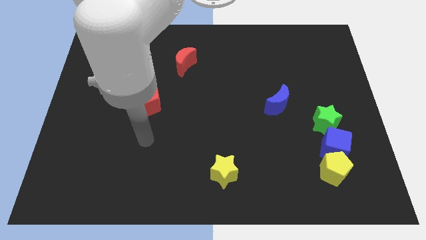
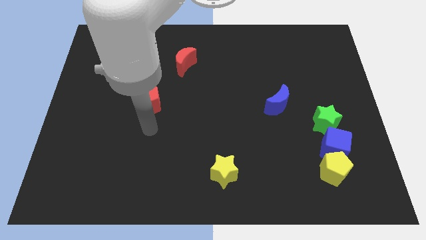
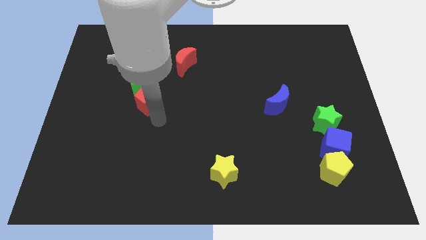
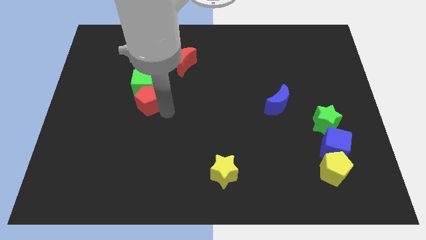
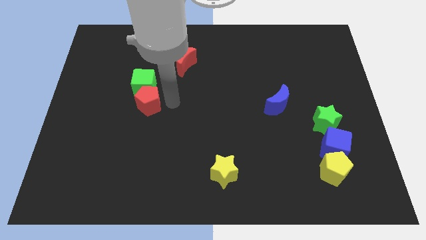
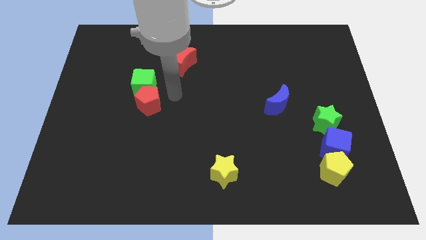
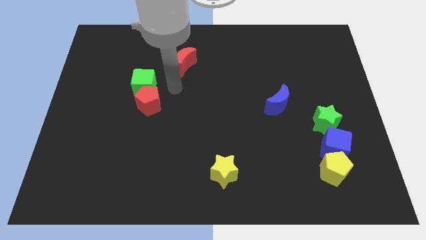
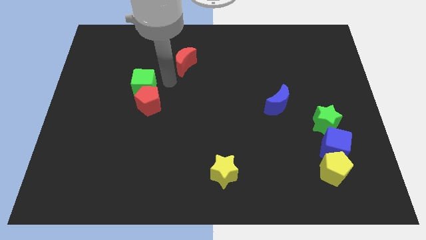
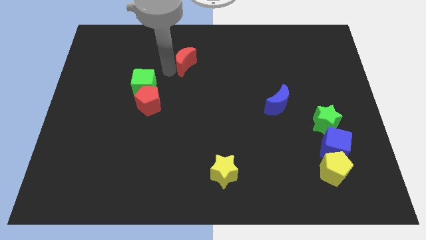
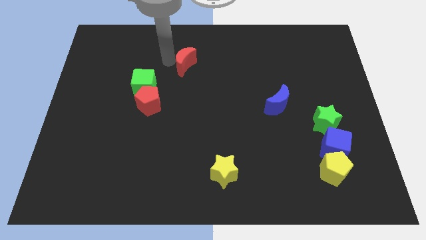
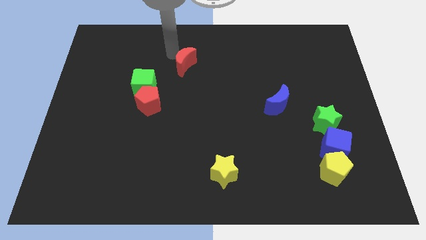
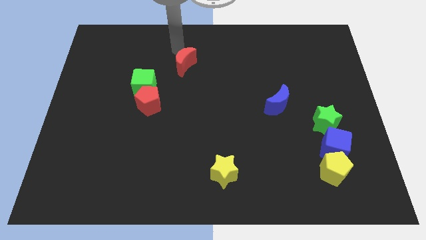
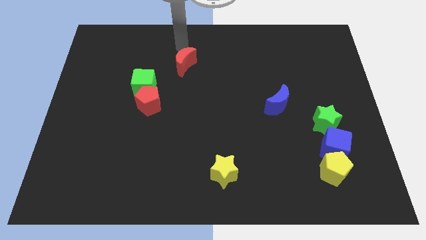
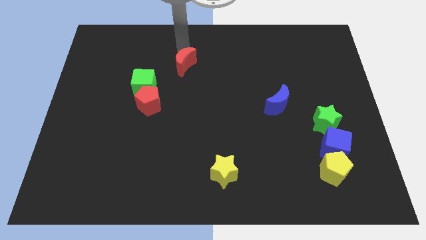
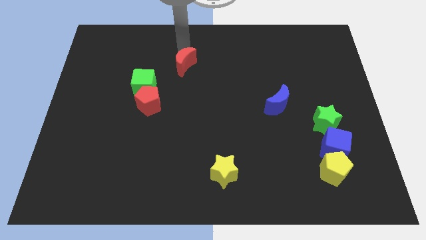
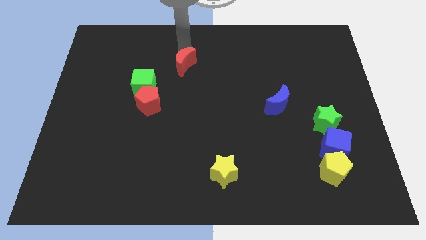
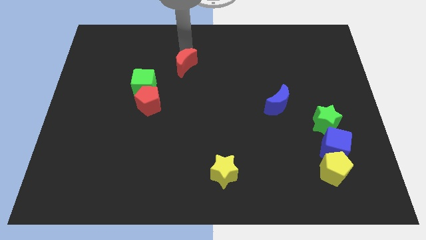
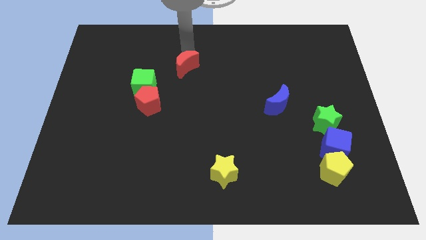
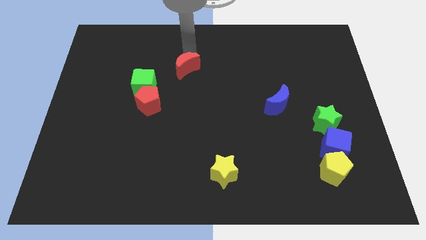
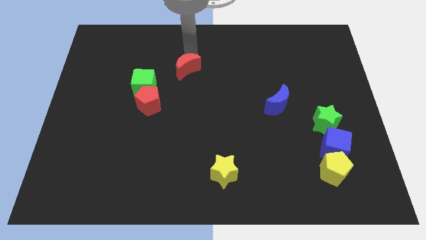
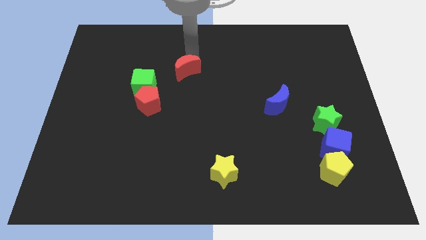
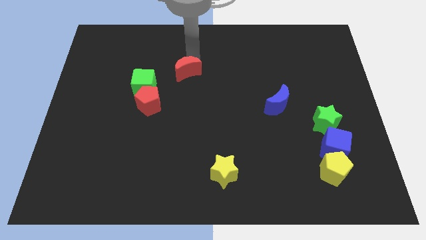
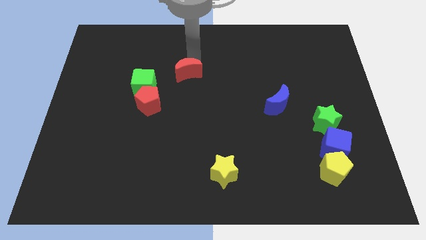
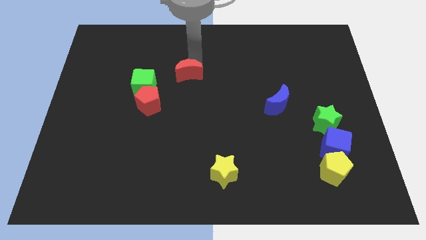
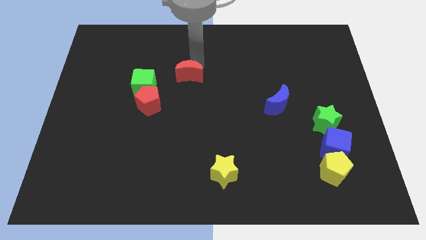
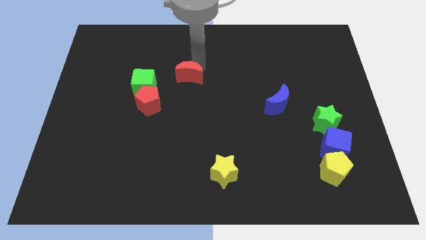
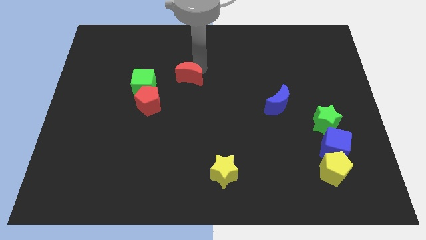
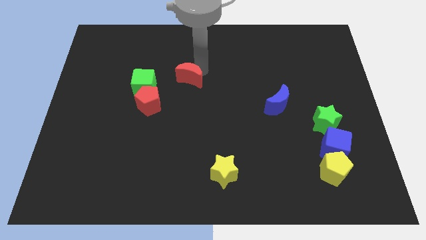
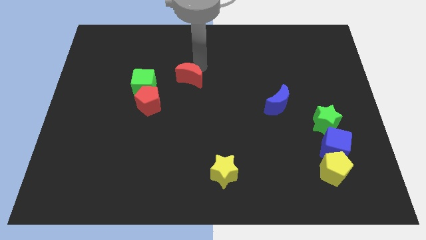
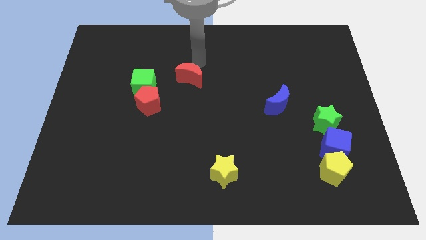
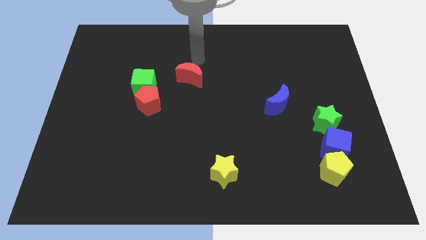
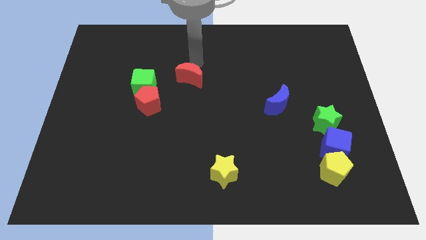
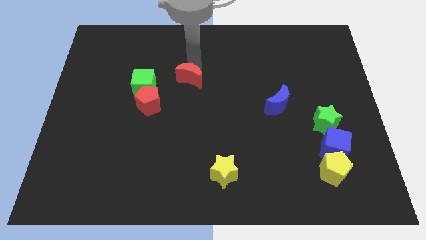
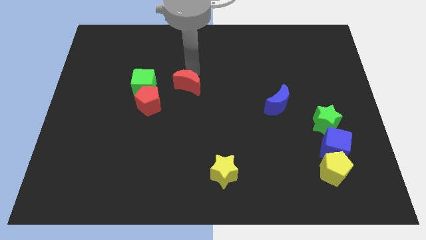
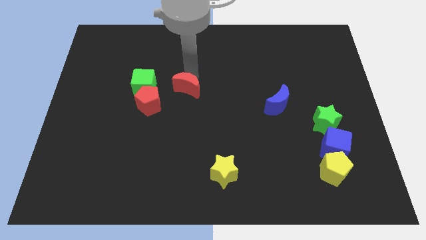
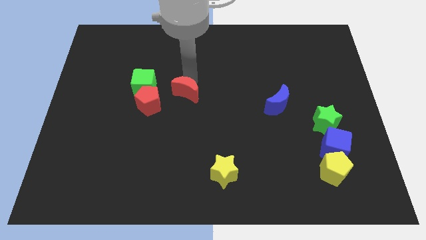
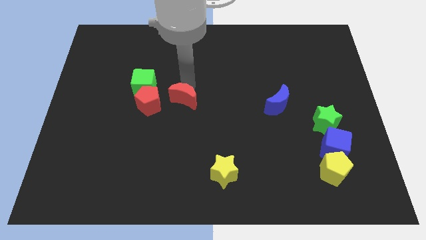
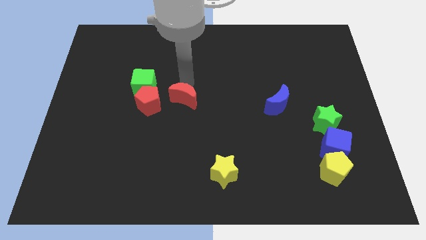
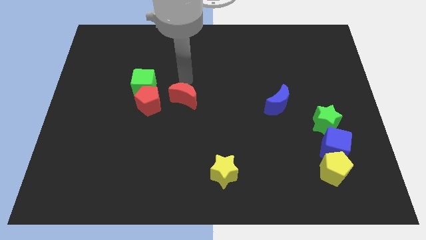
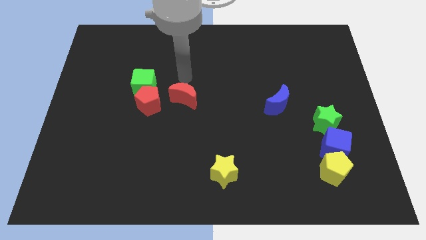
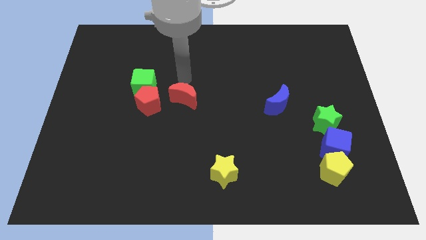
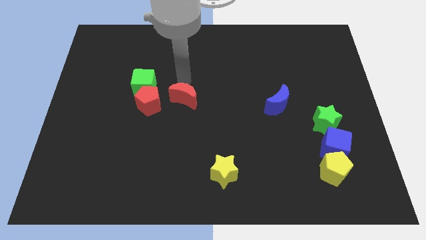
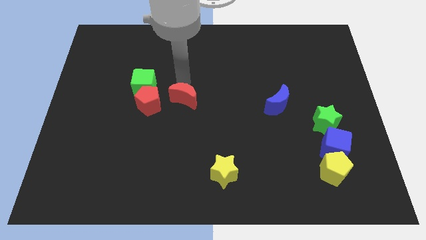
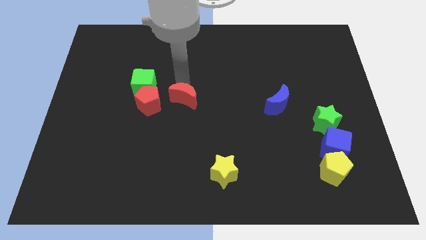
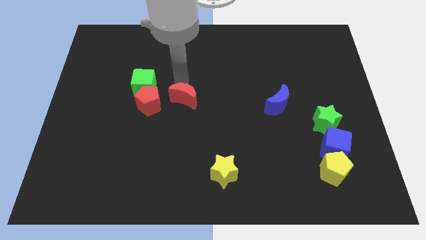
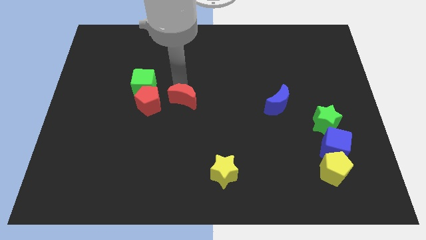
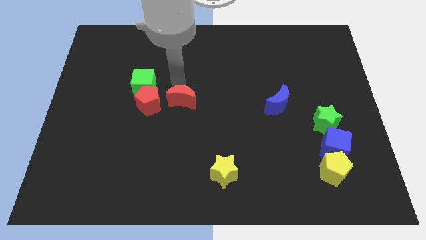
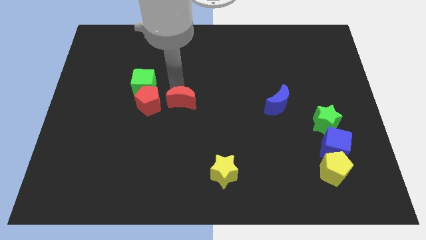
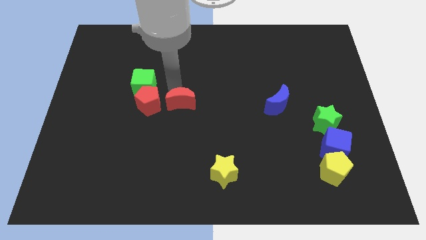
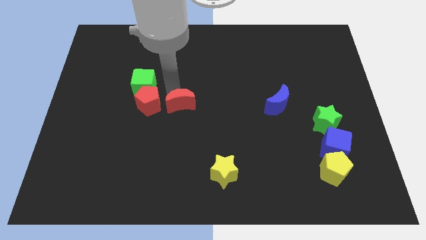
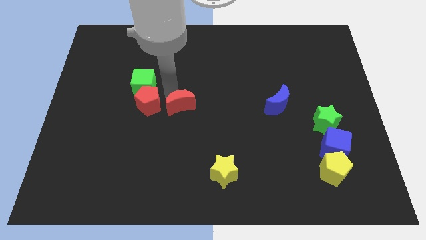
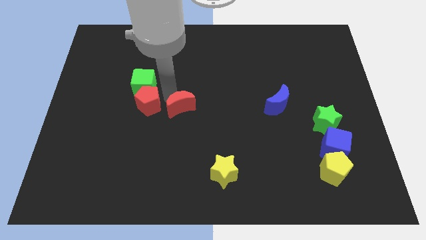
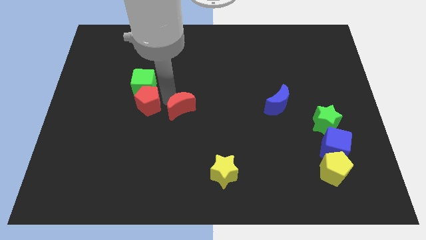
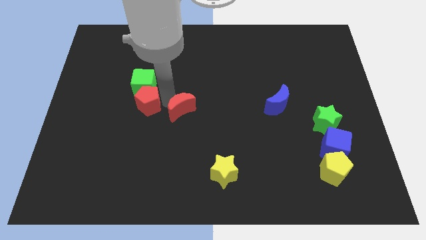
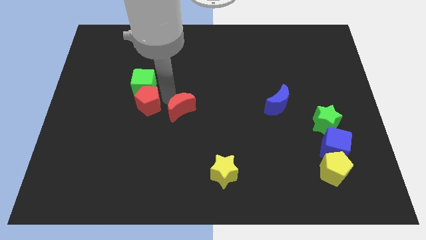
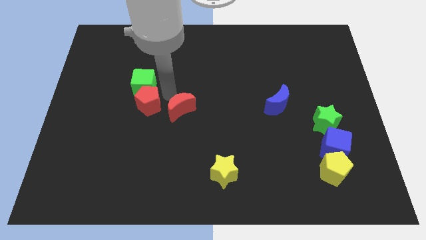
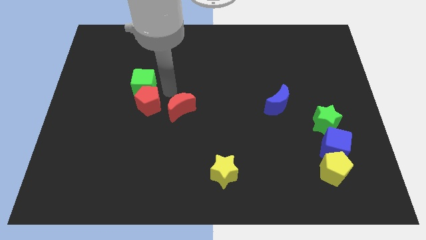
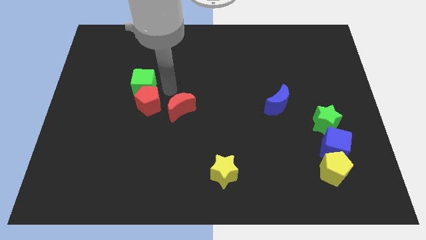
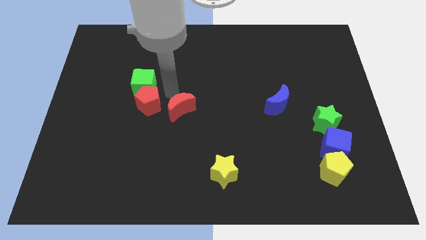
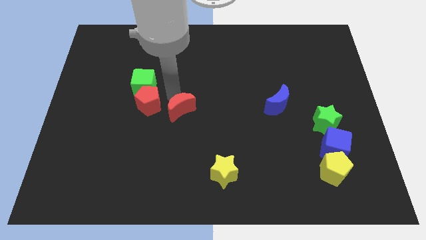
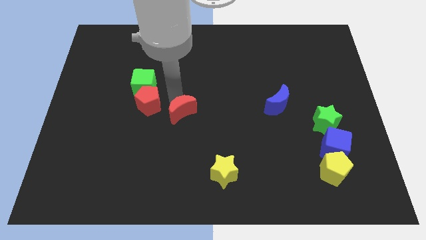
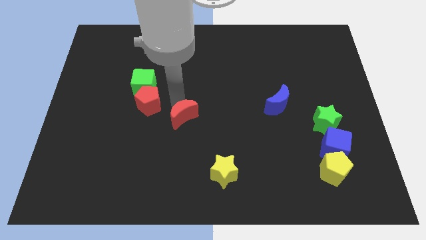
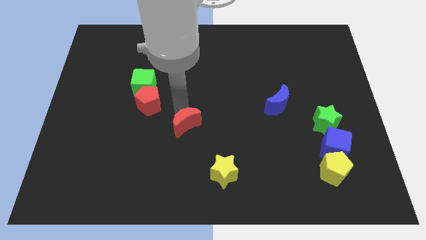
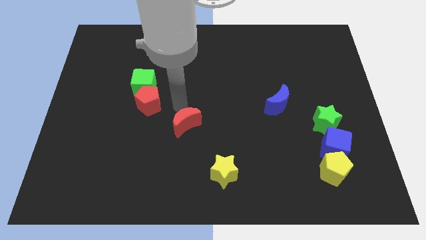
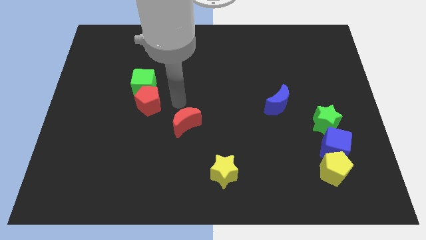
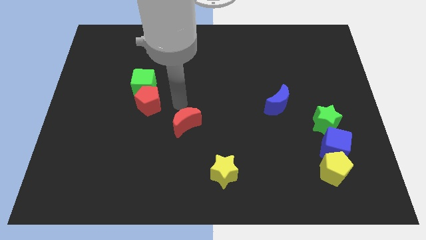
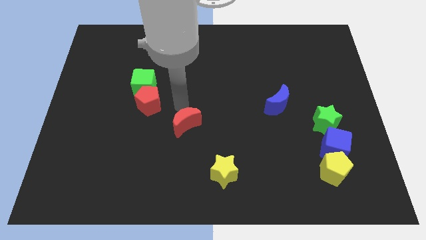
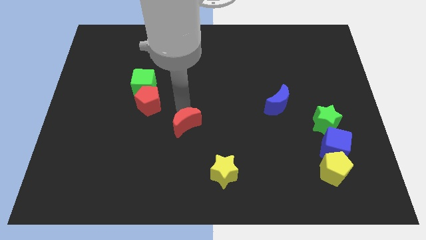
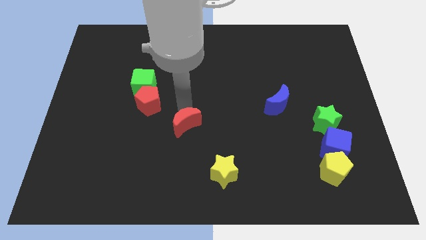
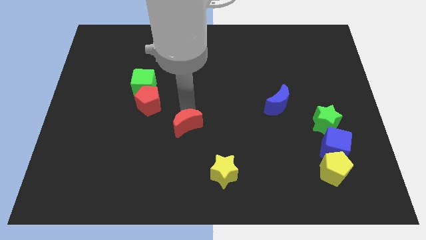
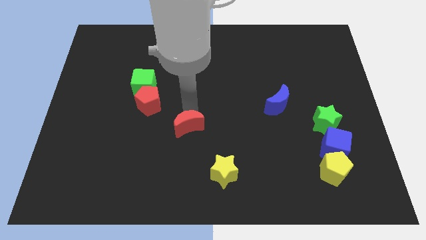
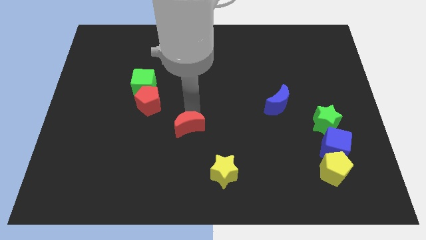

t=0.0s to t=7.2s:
slide the red moon down

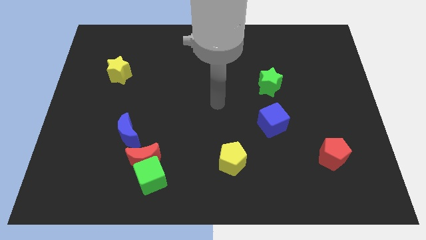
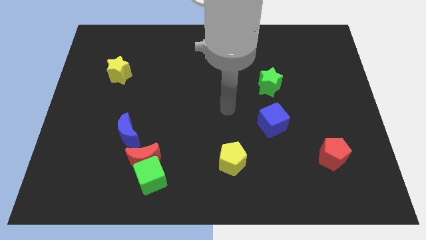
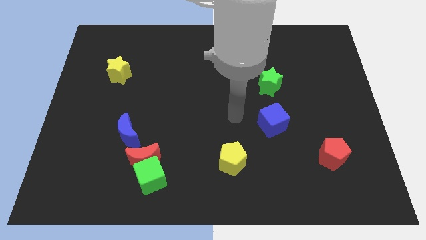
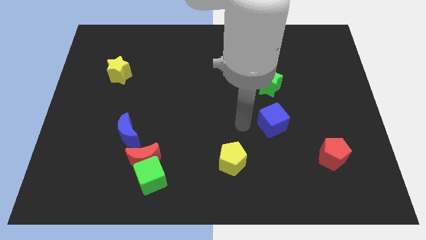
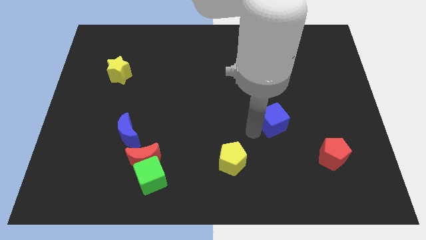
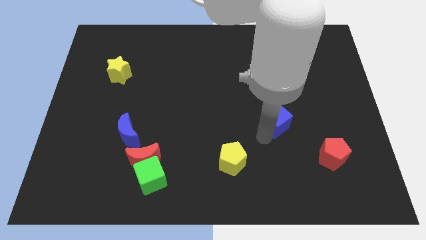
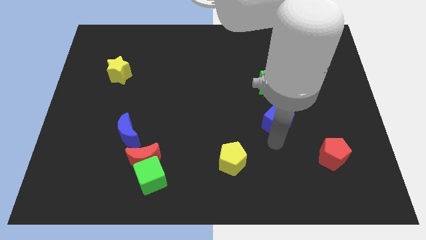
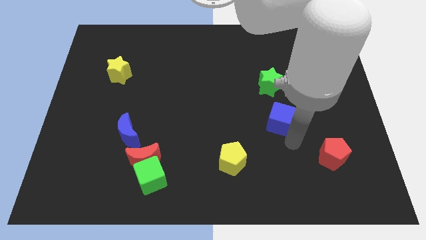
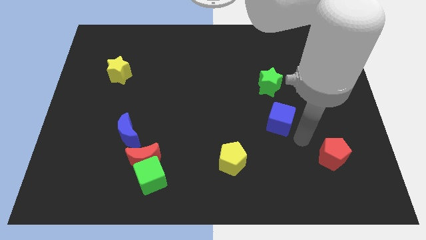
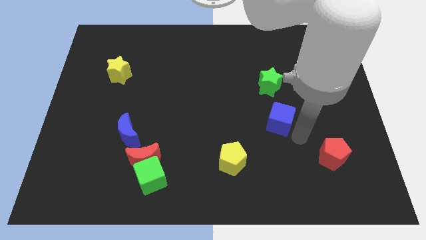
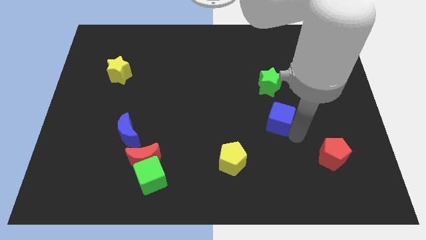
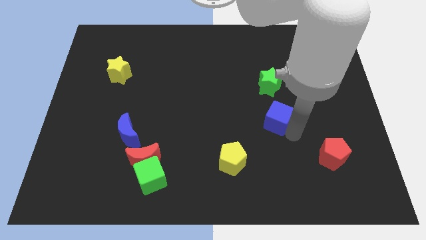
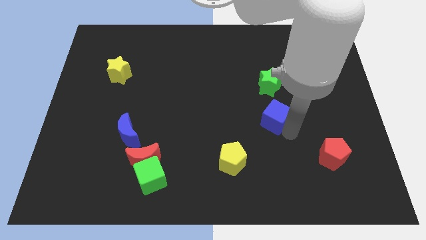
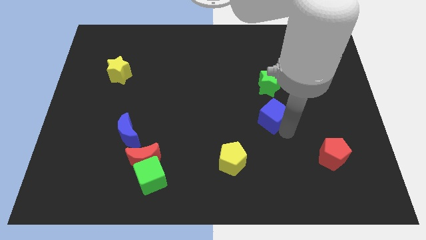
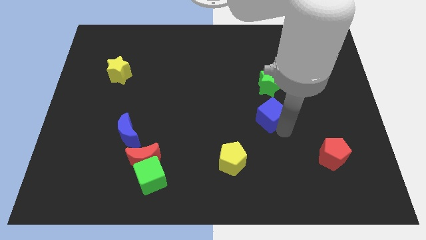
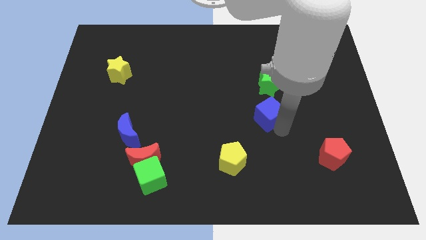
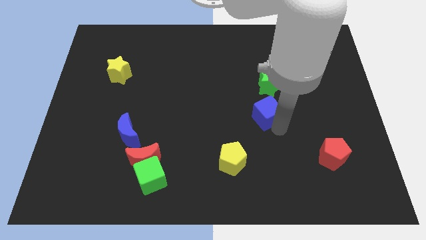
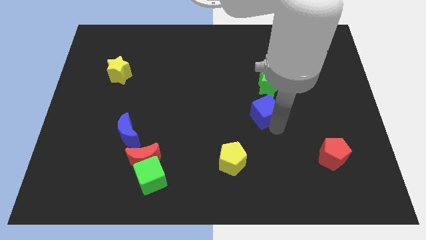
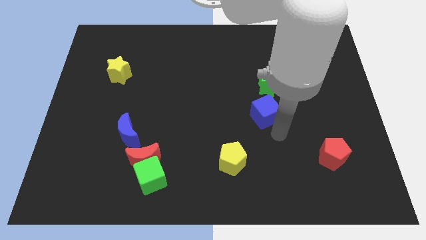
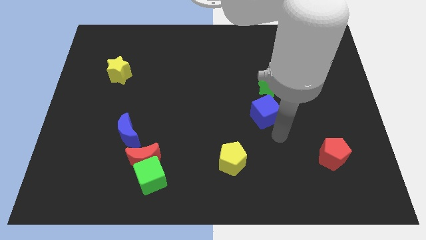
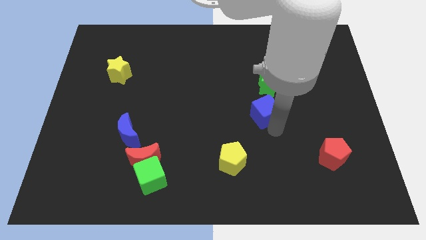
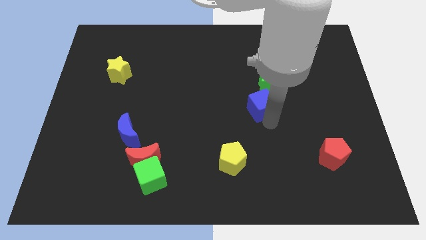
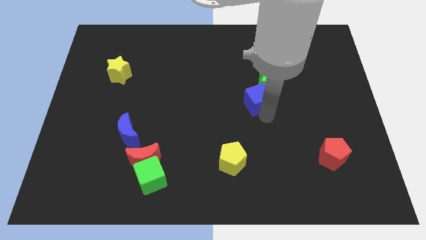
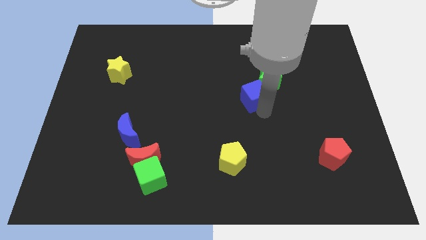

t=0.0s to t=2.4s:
slightly move the blue cube upwards
